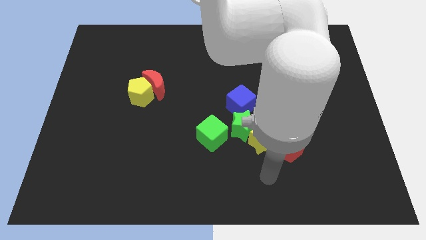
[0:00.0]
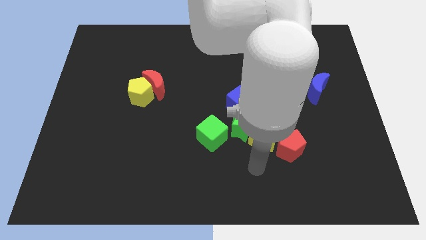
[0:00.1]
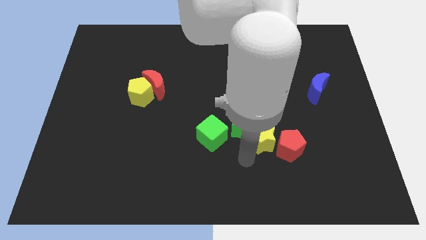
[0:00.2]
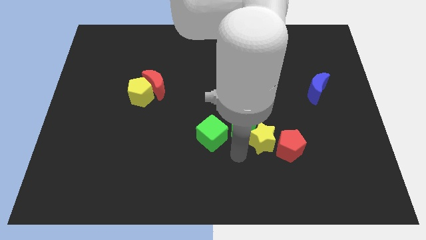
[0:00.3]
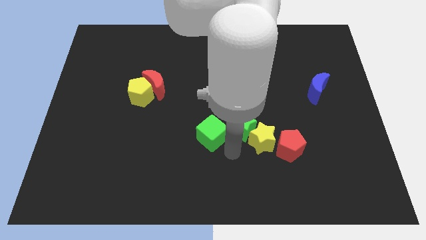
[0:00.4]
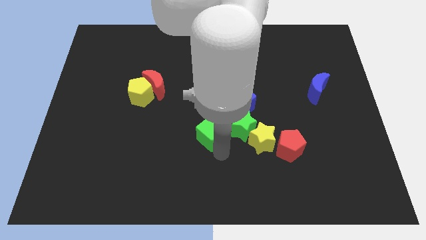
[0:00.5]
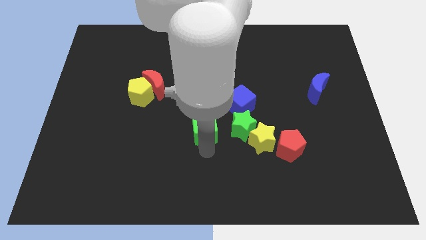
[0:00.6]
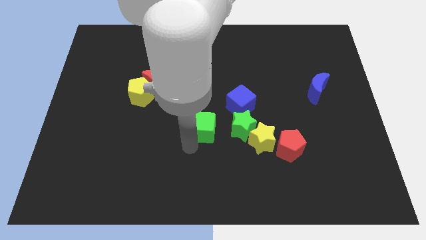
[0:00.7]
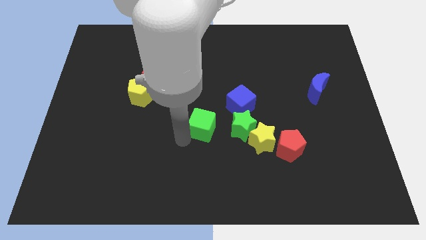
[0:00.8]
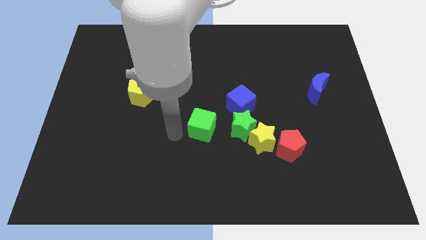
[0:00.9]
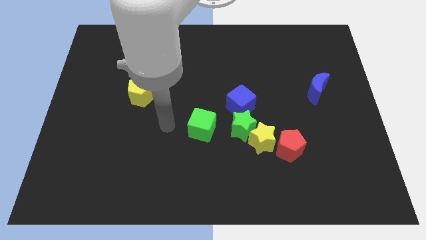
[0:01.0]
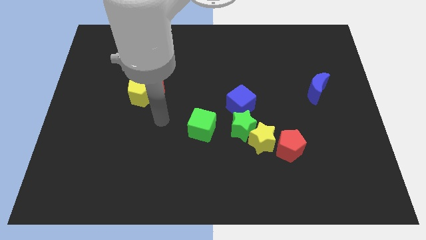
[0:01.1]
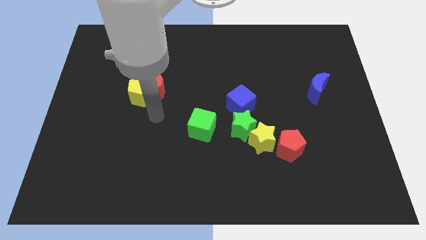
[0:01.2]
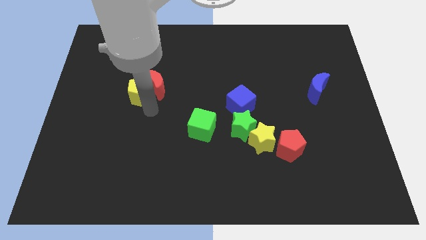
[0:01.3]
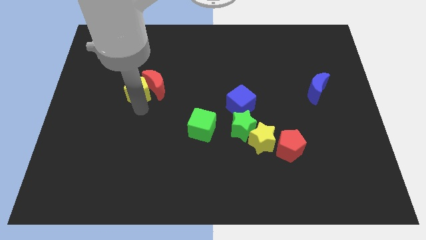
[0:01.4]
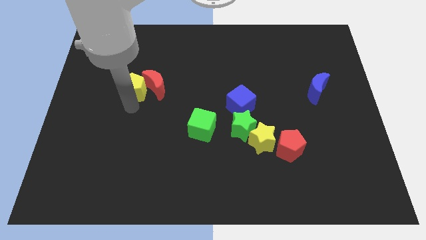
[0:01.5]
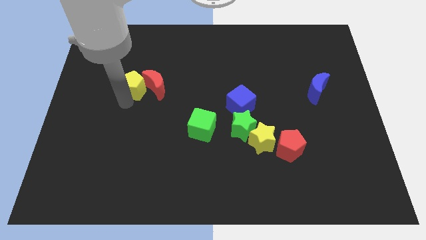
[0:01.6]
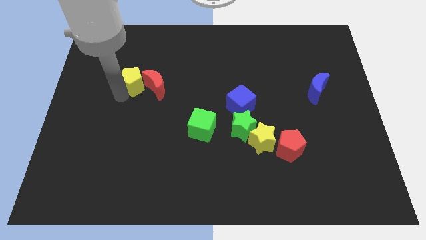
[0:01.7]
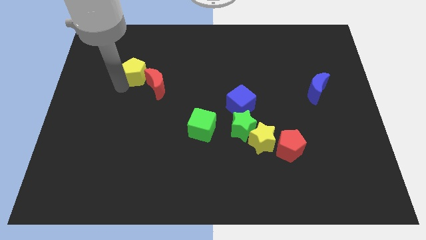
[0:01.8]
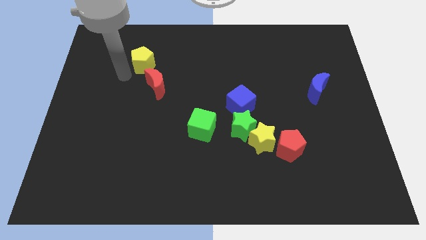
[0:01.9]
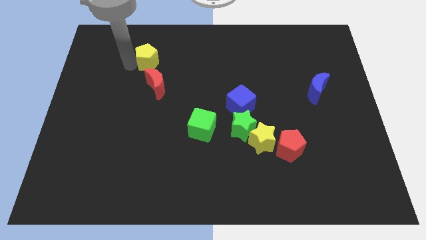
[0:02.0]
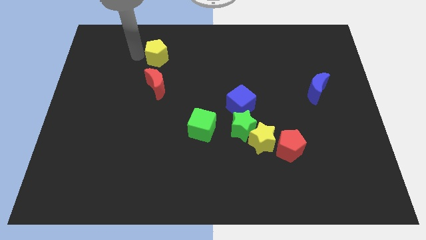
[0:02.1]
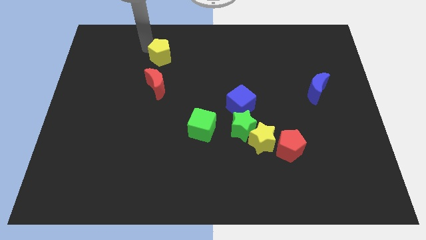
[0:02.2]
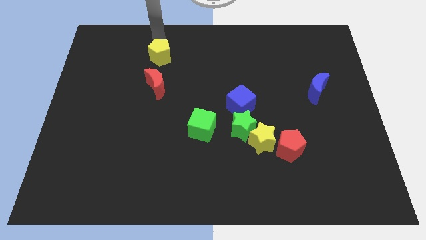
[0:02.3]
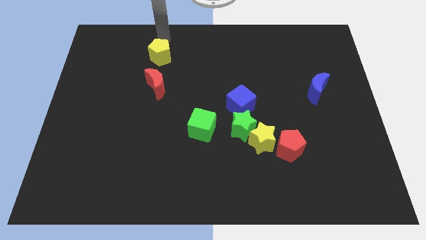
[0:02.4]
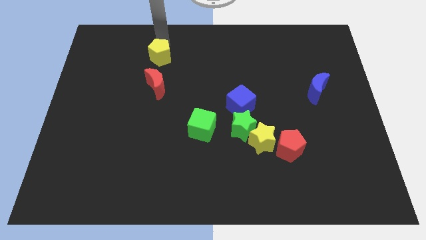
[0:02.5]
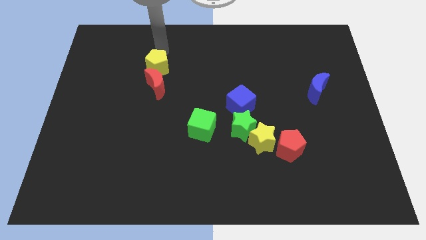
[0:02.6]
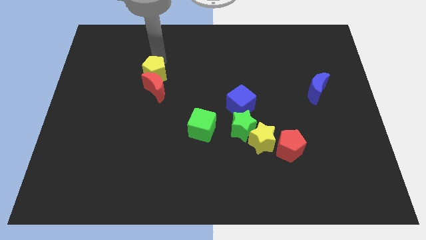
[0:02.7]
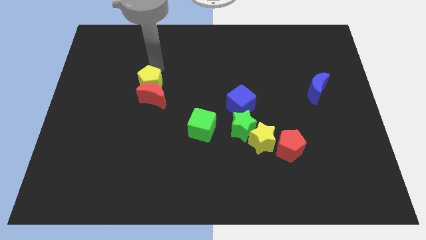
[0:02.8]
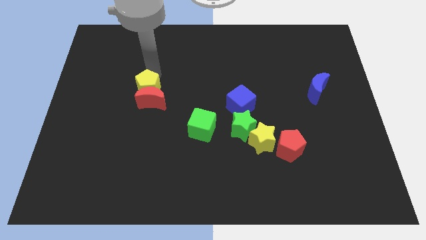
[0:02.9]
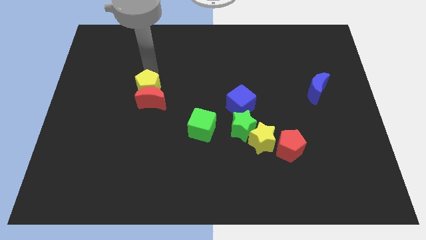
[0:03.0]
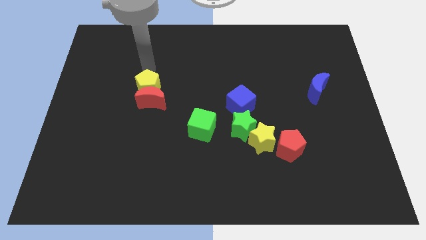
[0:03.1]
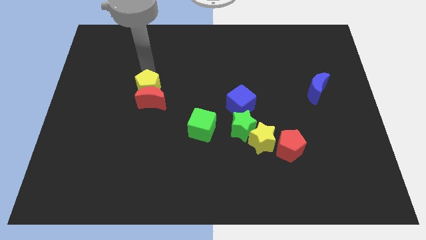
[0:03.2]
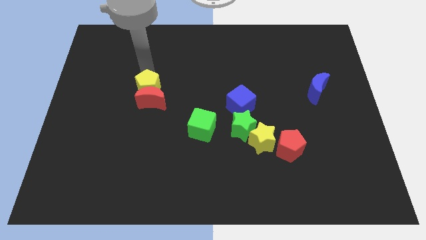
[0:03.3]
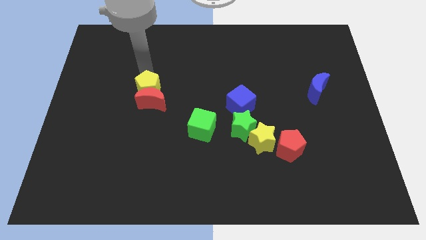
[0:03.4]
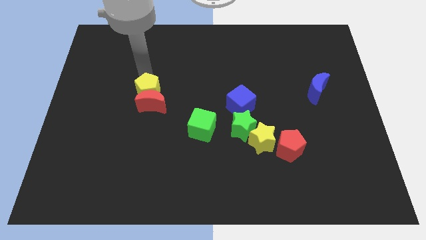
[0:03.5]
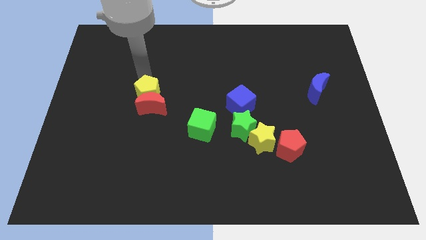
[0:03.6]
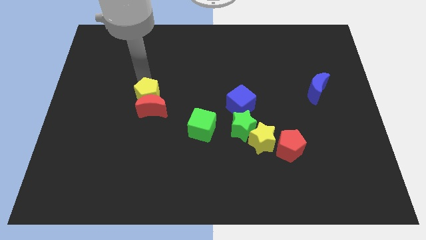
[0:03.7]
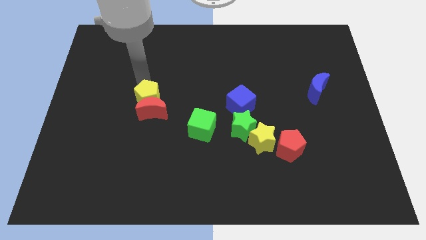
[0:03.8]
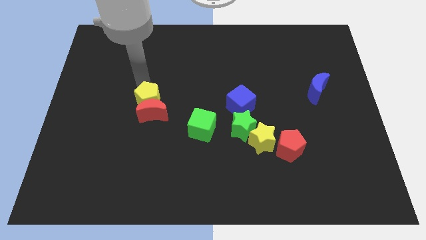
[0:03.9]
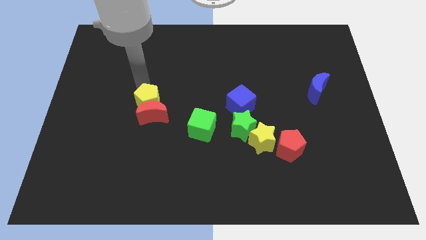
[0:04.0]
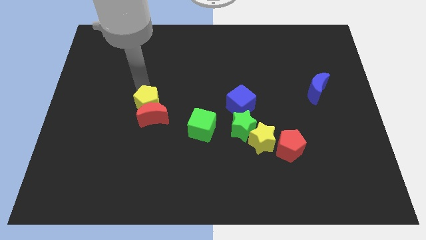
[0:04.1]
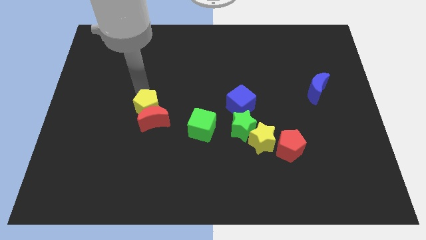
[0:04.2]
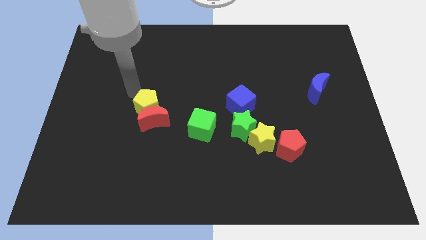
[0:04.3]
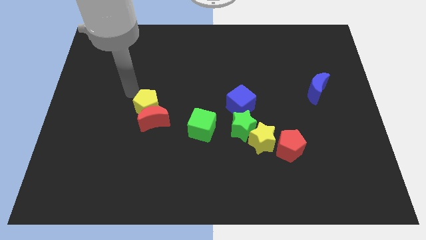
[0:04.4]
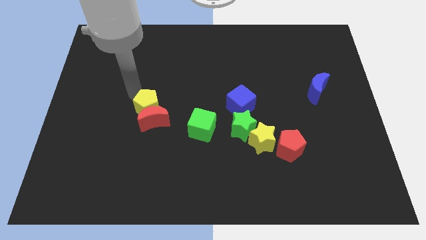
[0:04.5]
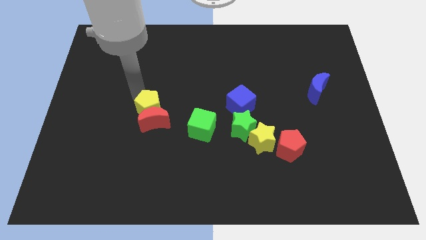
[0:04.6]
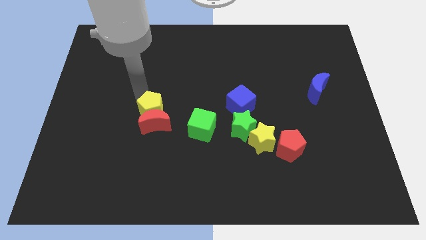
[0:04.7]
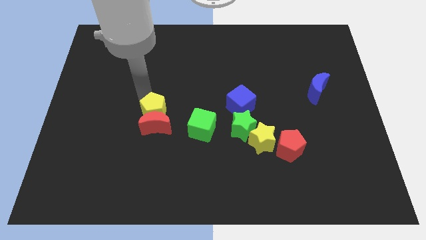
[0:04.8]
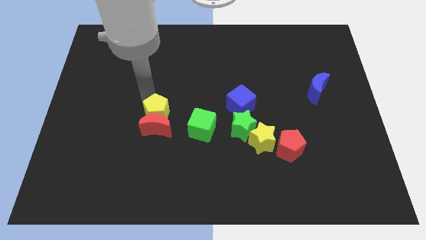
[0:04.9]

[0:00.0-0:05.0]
slightly move the yellow pentagon diagonally down and right

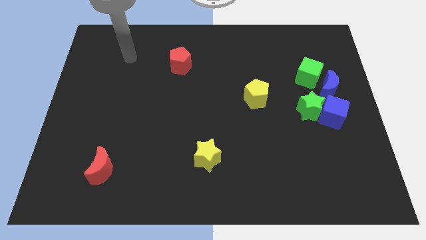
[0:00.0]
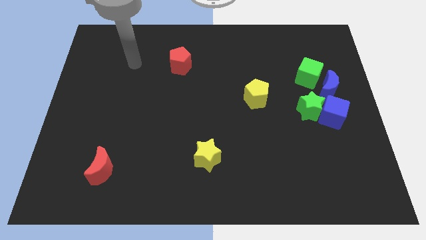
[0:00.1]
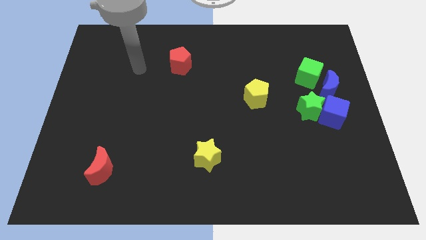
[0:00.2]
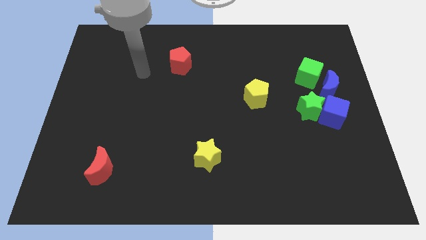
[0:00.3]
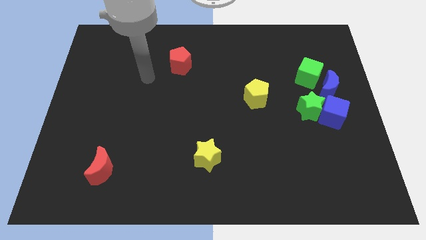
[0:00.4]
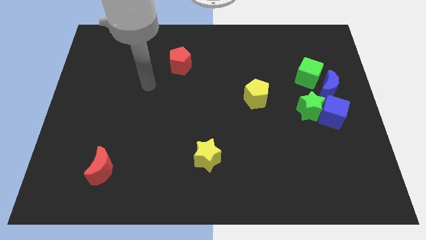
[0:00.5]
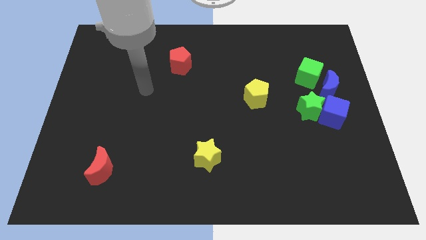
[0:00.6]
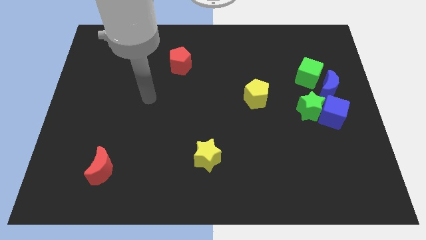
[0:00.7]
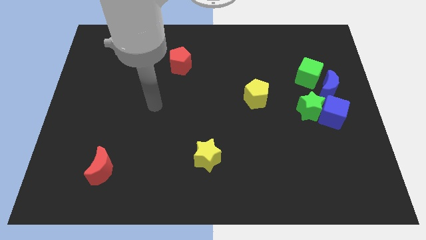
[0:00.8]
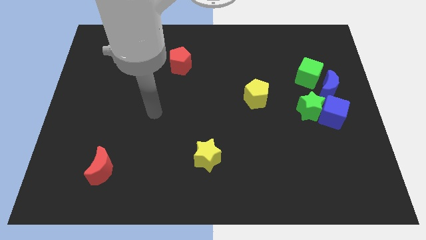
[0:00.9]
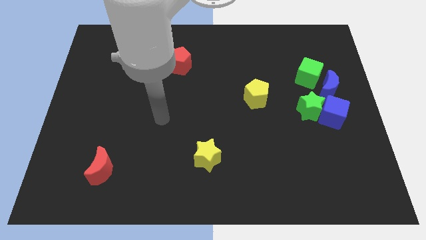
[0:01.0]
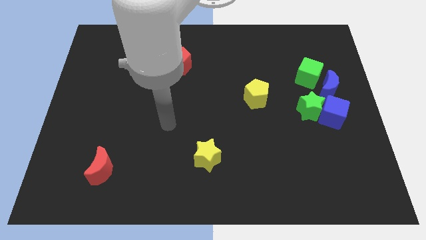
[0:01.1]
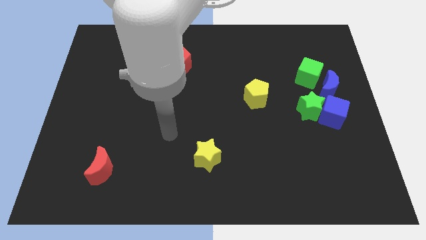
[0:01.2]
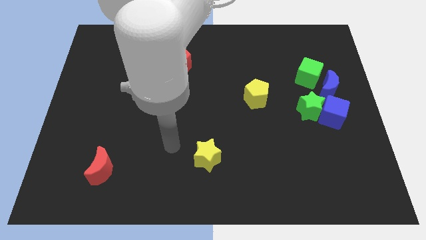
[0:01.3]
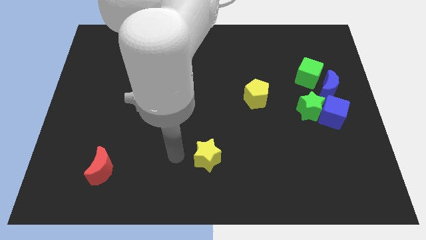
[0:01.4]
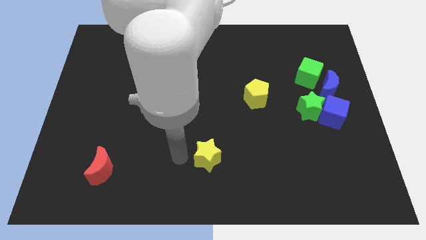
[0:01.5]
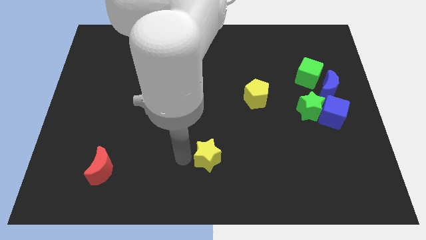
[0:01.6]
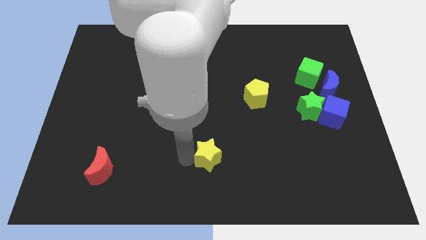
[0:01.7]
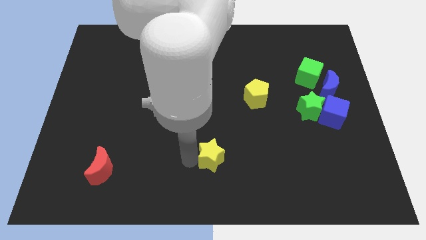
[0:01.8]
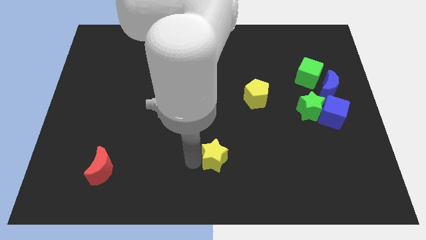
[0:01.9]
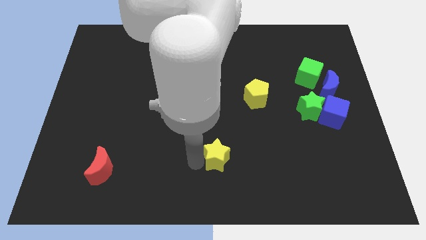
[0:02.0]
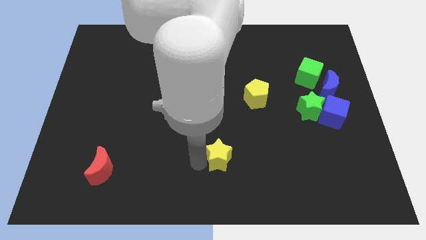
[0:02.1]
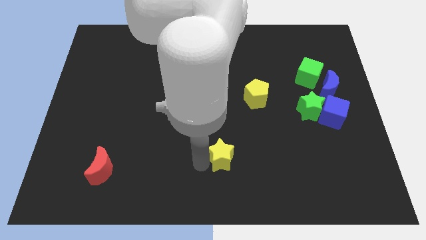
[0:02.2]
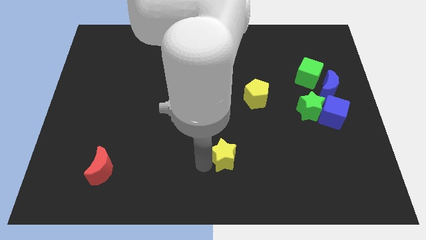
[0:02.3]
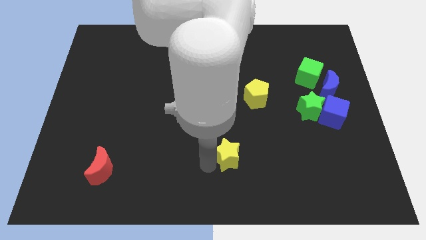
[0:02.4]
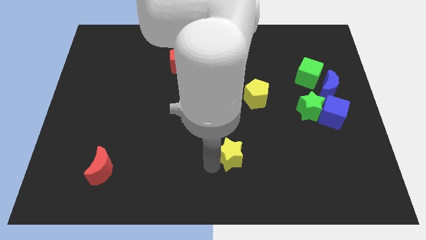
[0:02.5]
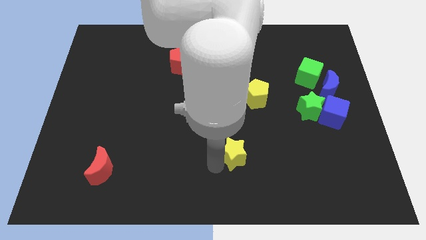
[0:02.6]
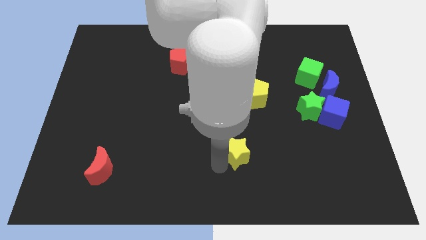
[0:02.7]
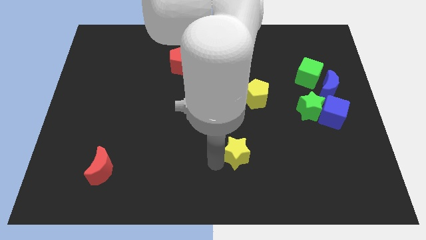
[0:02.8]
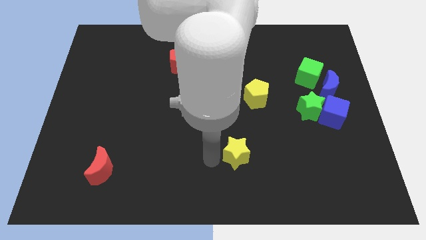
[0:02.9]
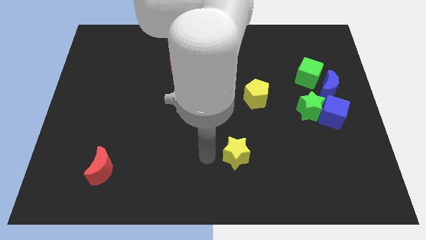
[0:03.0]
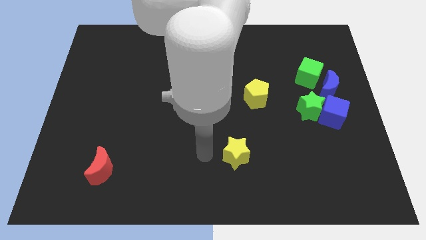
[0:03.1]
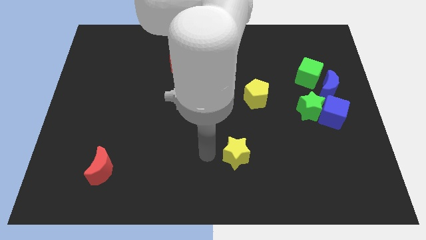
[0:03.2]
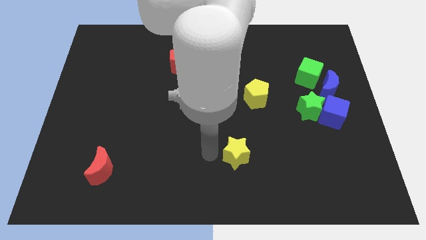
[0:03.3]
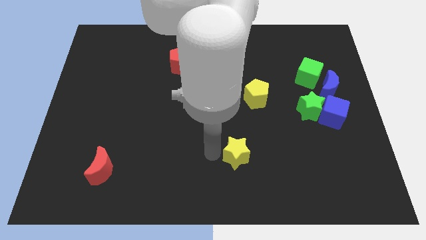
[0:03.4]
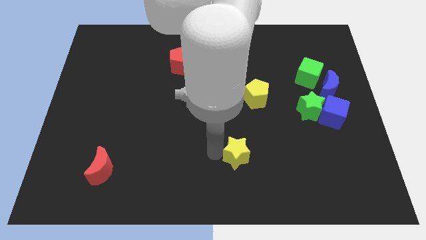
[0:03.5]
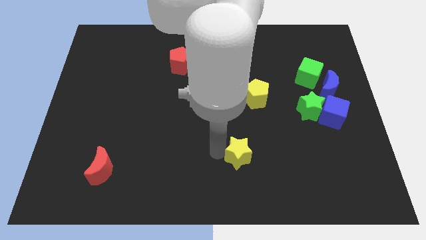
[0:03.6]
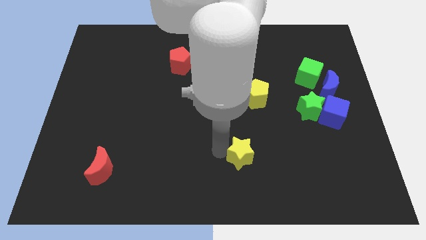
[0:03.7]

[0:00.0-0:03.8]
move the yellow star right a little
